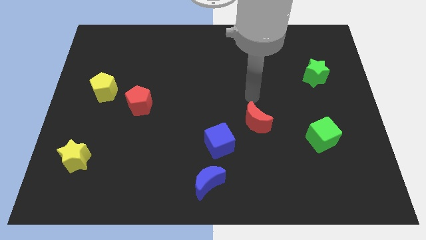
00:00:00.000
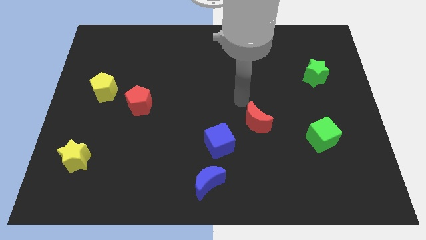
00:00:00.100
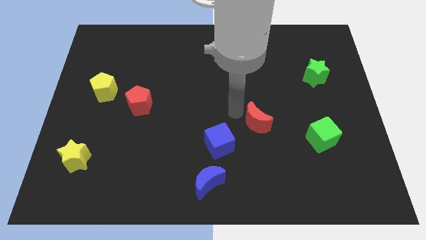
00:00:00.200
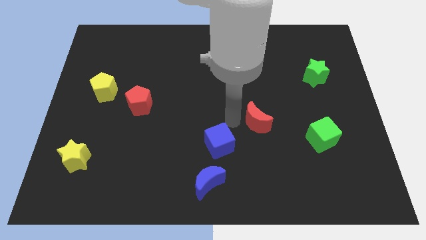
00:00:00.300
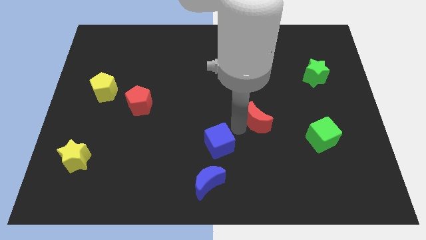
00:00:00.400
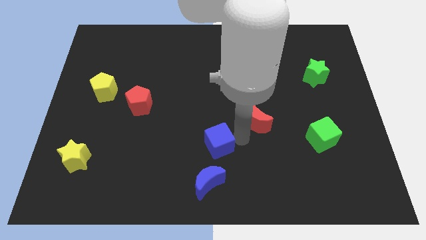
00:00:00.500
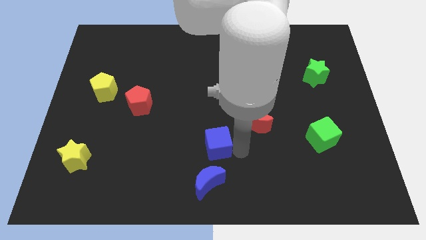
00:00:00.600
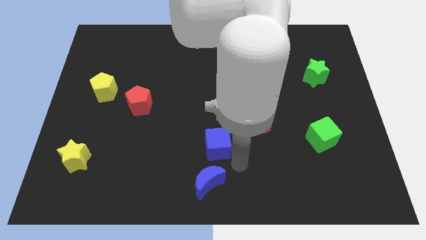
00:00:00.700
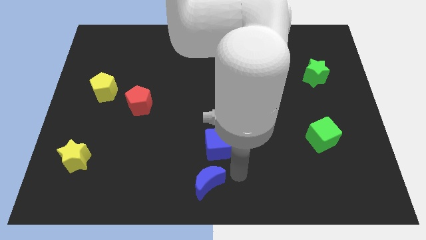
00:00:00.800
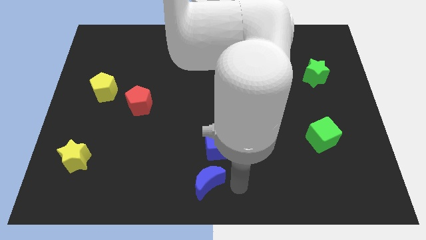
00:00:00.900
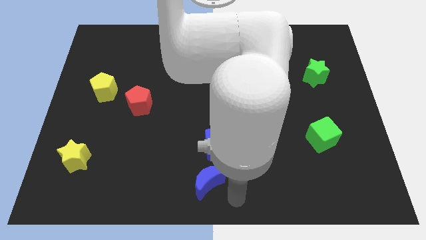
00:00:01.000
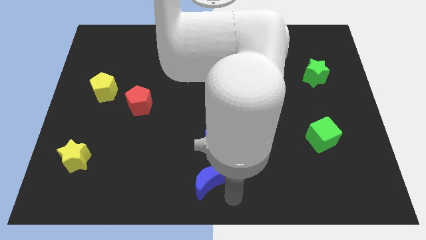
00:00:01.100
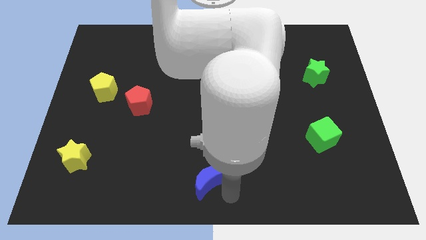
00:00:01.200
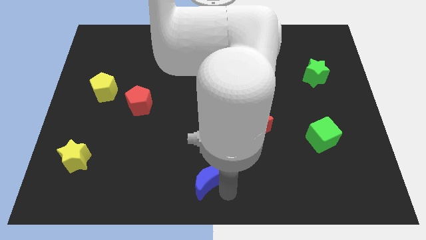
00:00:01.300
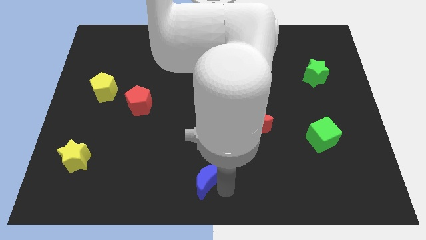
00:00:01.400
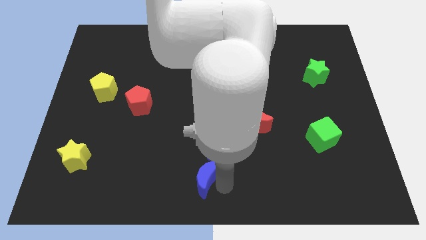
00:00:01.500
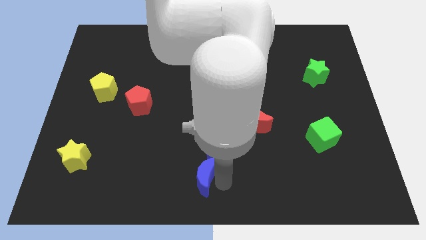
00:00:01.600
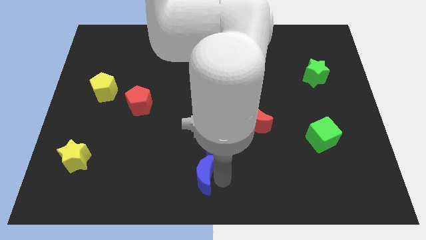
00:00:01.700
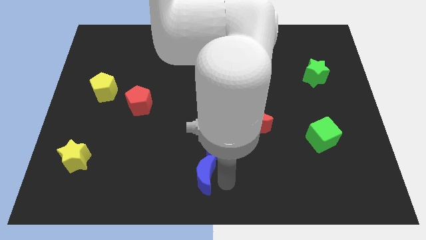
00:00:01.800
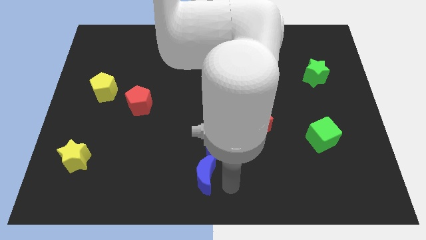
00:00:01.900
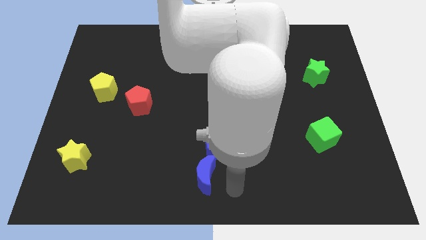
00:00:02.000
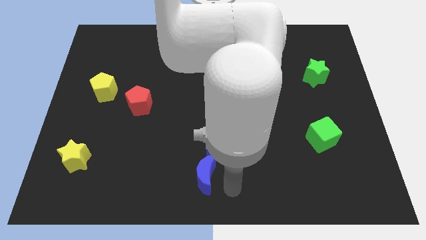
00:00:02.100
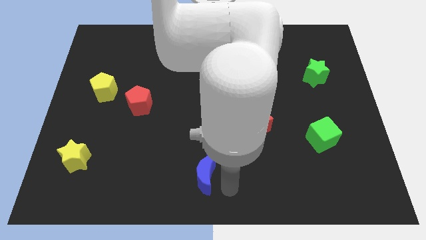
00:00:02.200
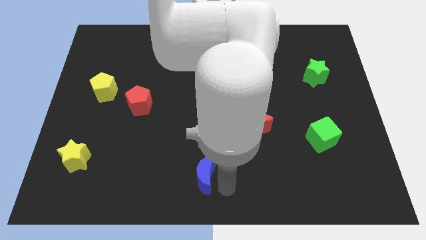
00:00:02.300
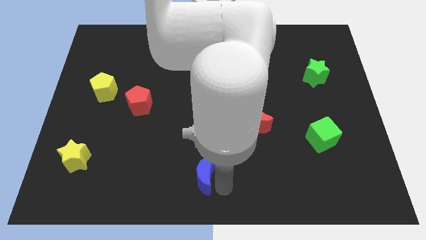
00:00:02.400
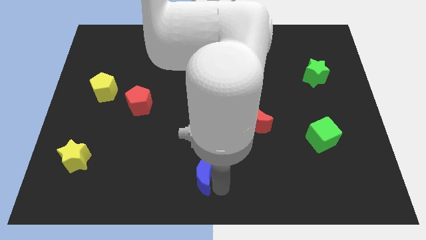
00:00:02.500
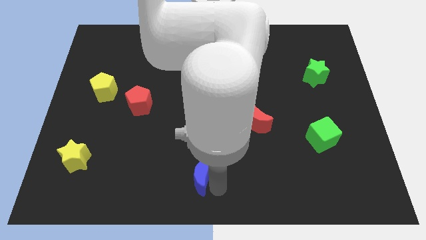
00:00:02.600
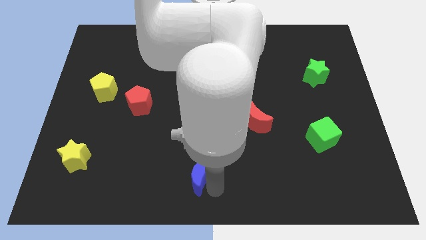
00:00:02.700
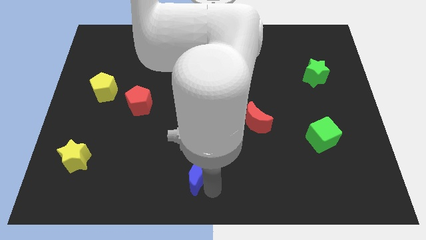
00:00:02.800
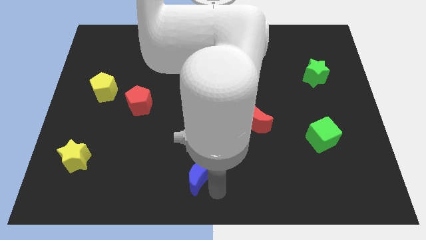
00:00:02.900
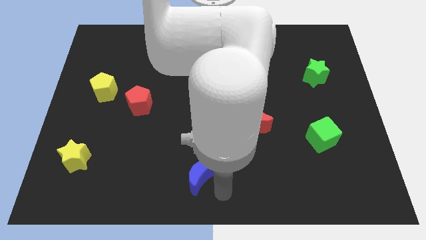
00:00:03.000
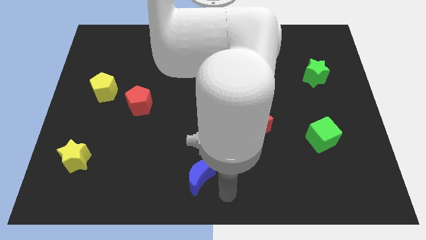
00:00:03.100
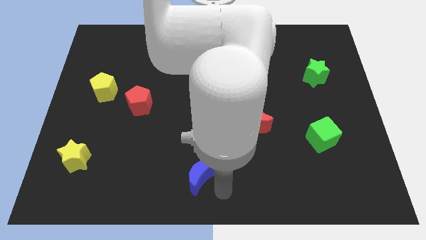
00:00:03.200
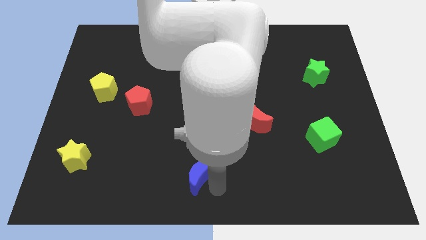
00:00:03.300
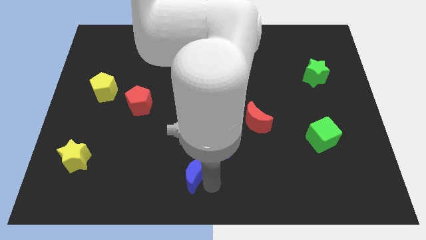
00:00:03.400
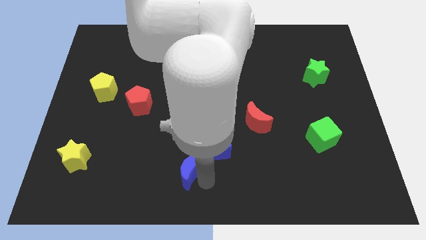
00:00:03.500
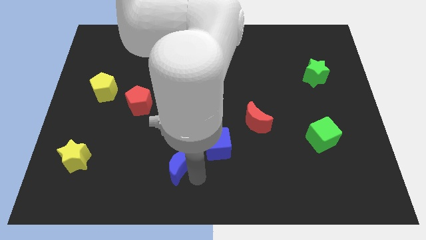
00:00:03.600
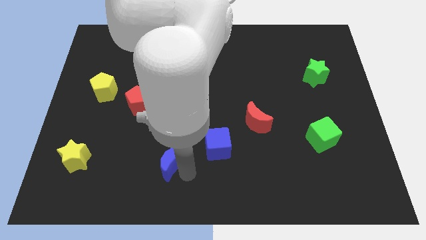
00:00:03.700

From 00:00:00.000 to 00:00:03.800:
slightly push the blue moon up and then to the left

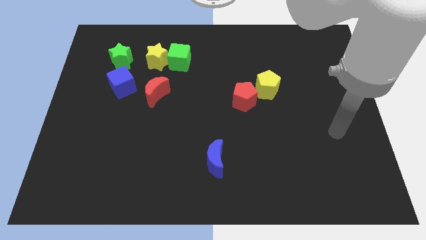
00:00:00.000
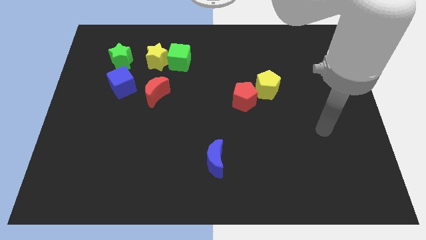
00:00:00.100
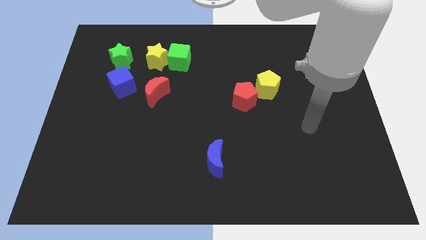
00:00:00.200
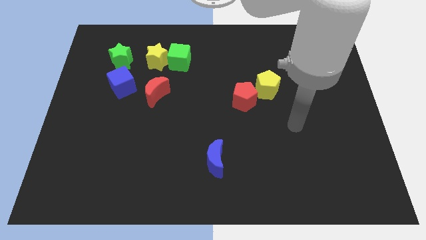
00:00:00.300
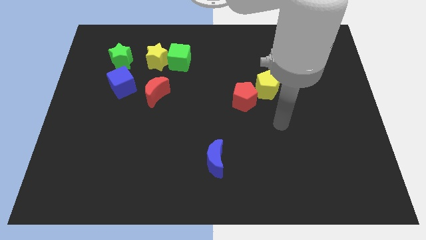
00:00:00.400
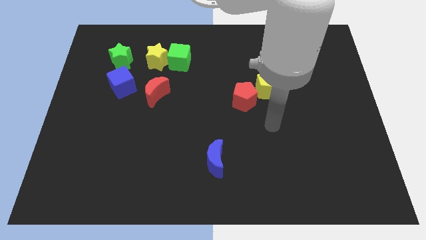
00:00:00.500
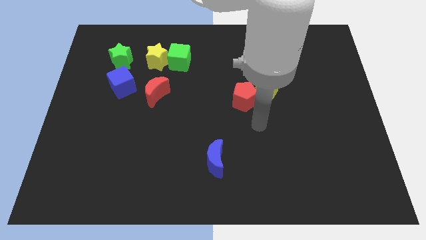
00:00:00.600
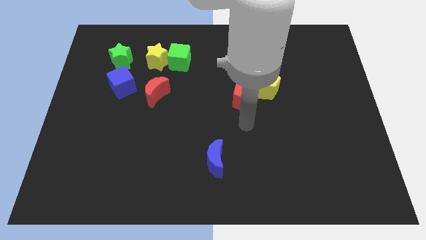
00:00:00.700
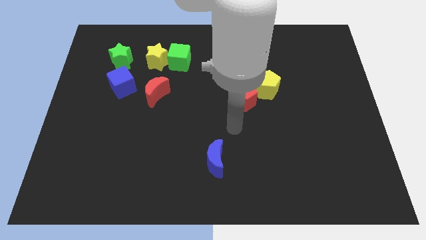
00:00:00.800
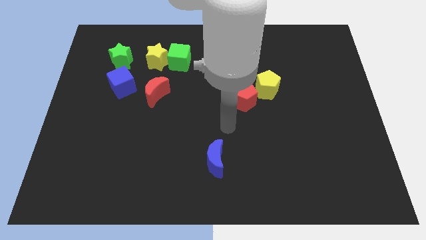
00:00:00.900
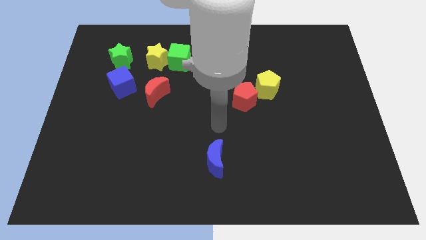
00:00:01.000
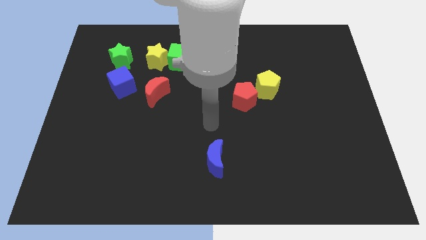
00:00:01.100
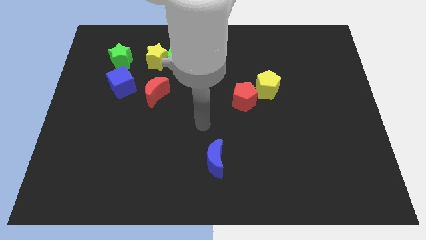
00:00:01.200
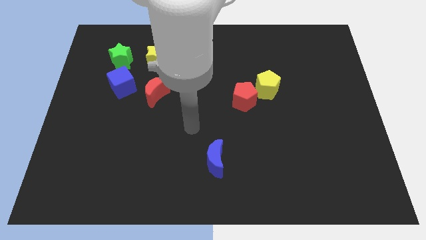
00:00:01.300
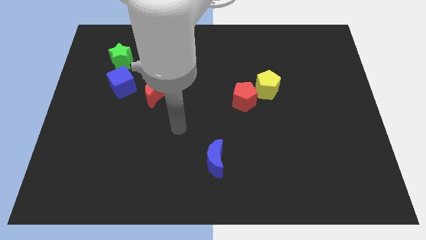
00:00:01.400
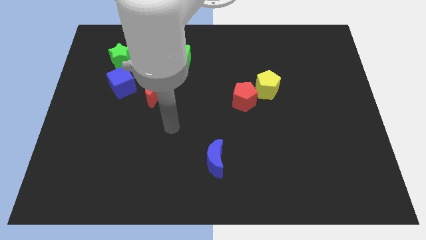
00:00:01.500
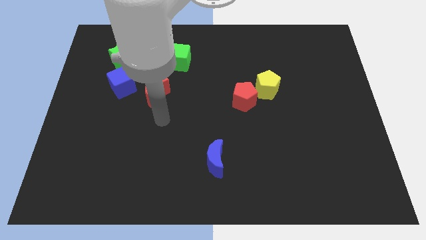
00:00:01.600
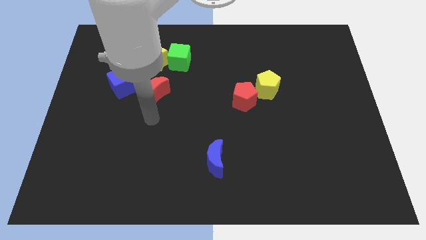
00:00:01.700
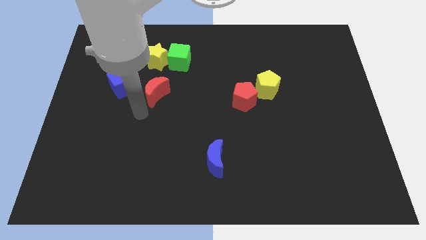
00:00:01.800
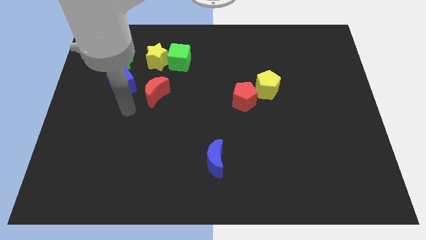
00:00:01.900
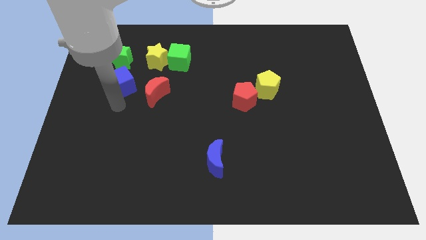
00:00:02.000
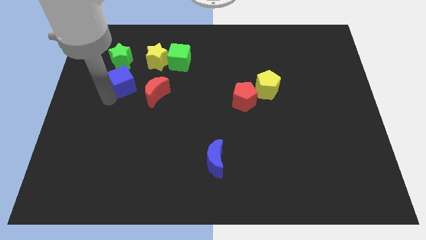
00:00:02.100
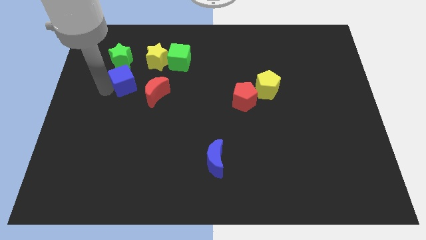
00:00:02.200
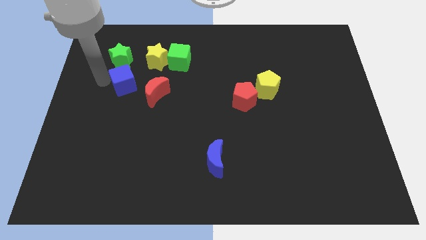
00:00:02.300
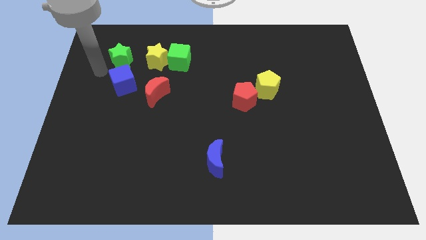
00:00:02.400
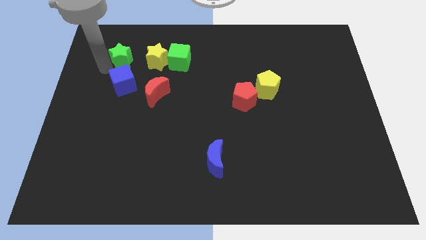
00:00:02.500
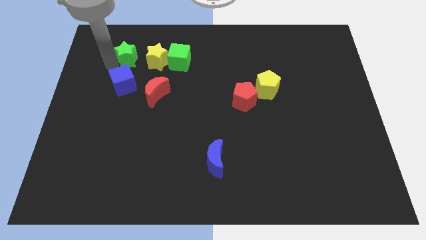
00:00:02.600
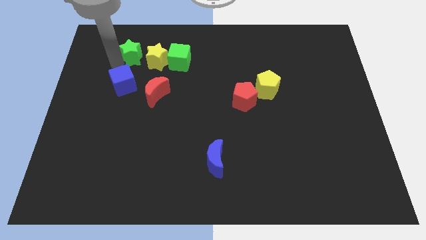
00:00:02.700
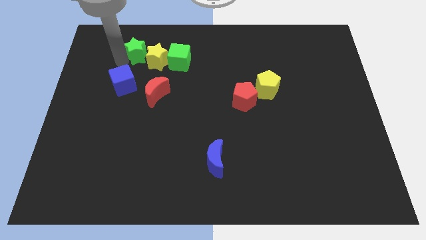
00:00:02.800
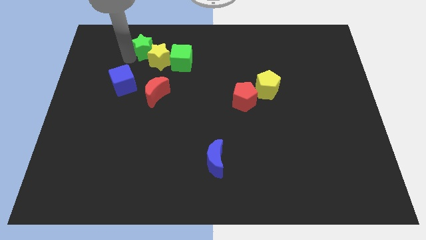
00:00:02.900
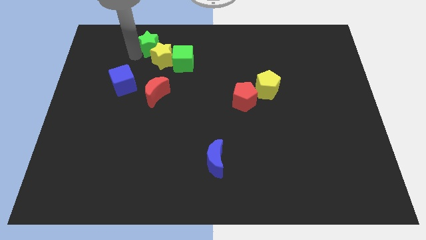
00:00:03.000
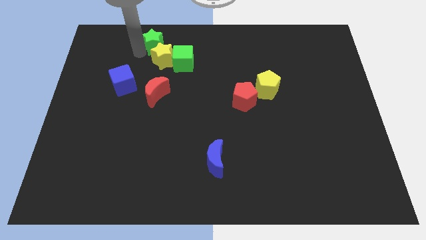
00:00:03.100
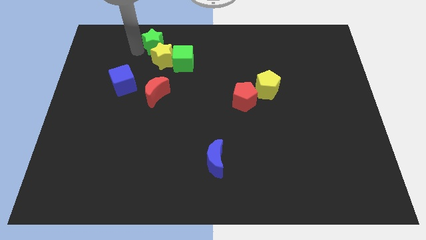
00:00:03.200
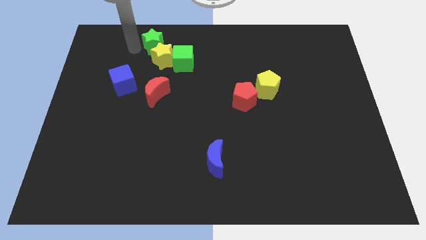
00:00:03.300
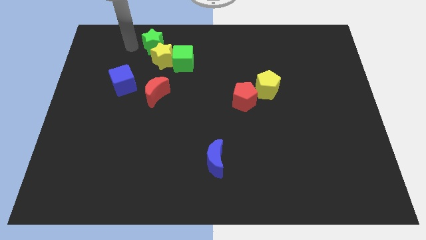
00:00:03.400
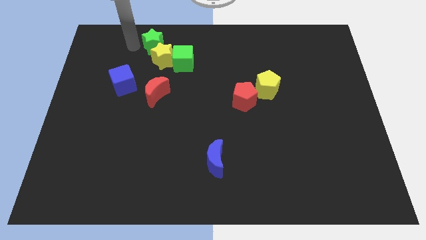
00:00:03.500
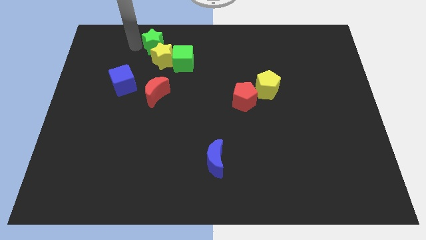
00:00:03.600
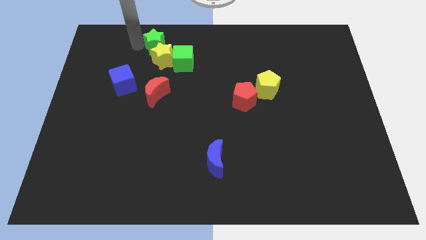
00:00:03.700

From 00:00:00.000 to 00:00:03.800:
move the green star right somewhat

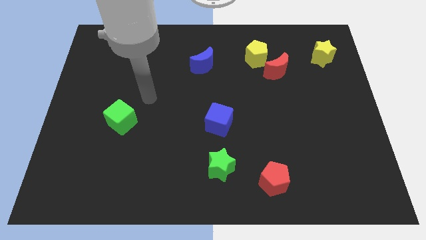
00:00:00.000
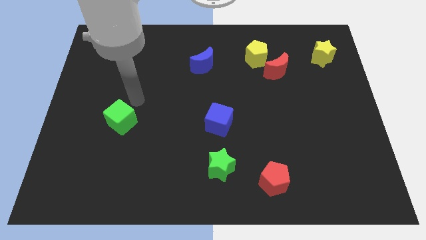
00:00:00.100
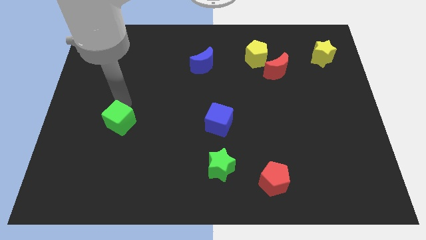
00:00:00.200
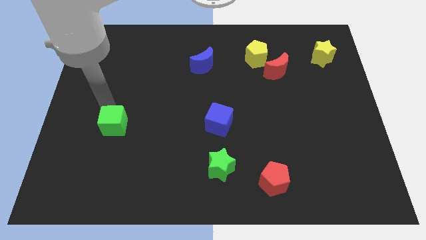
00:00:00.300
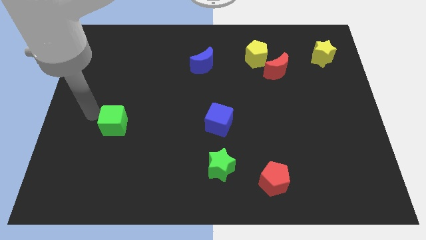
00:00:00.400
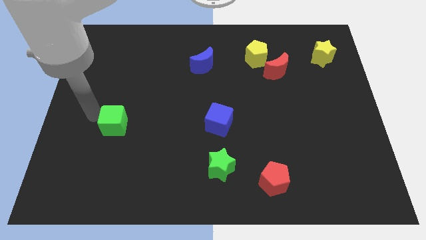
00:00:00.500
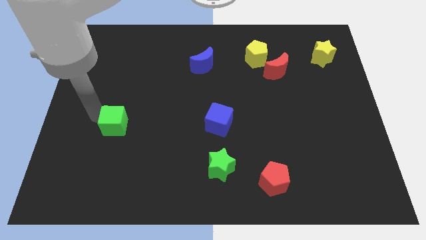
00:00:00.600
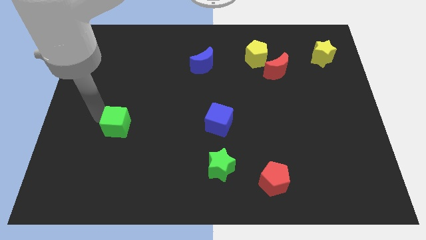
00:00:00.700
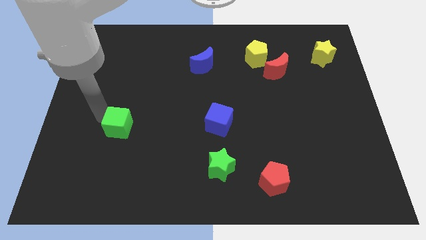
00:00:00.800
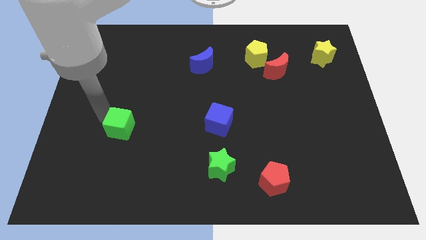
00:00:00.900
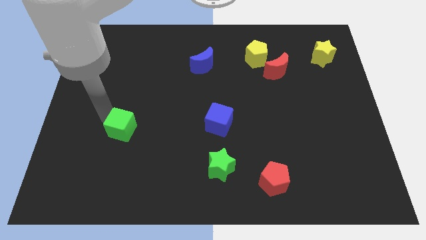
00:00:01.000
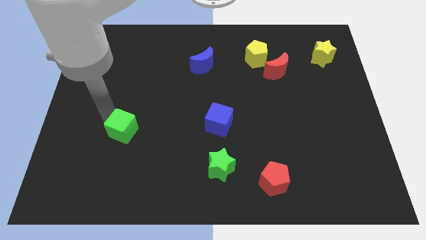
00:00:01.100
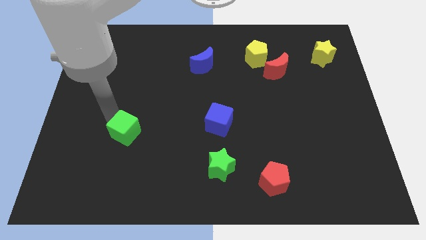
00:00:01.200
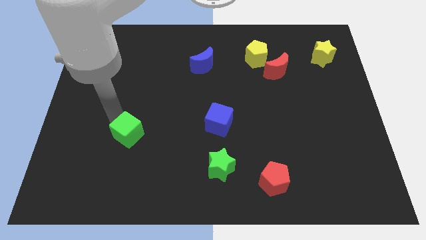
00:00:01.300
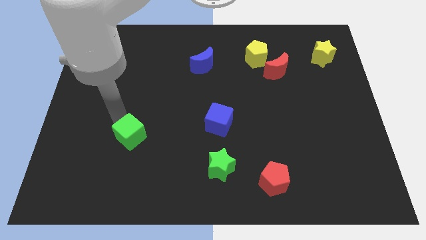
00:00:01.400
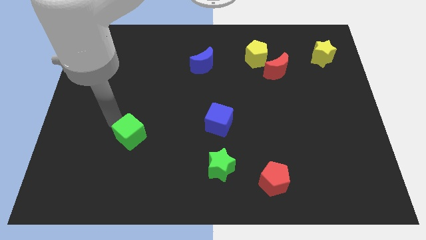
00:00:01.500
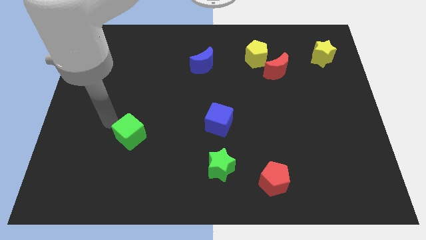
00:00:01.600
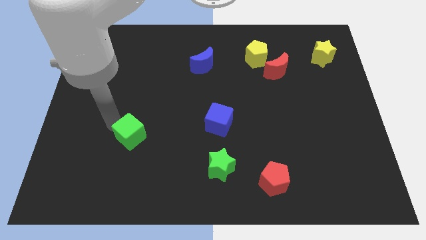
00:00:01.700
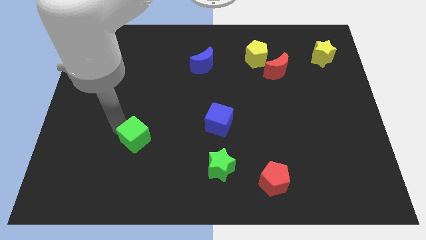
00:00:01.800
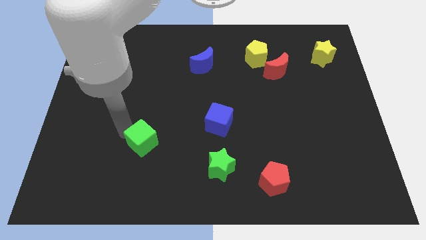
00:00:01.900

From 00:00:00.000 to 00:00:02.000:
slightly move the green cube downwards and right diagonally
